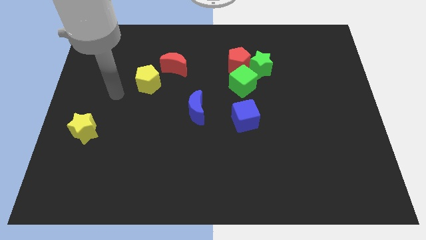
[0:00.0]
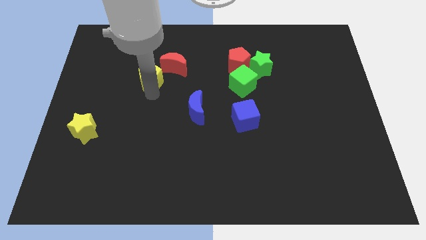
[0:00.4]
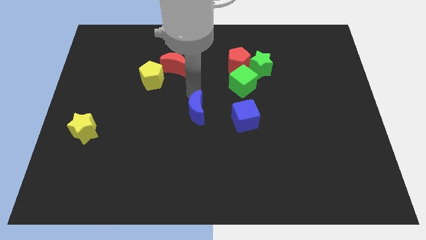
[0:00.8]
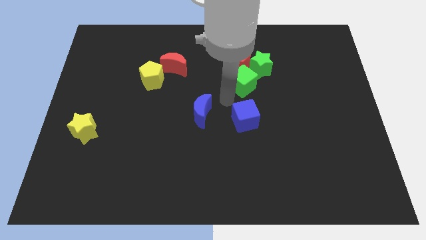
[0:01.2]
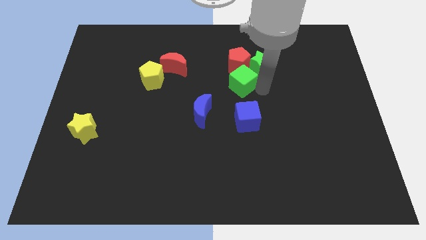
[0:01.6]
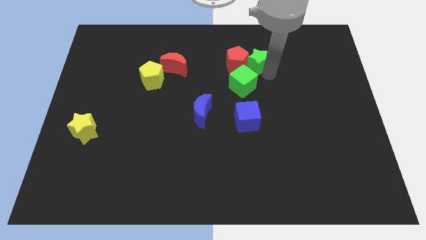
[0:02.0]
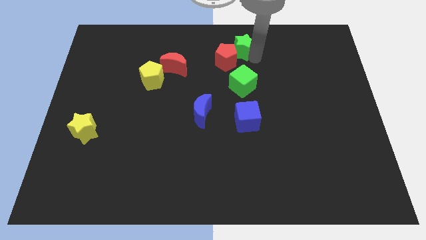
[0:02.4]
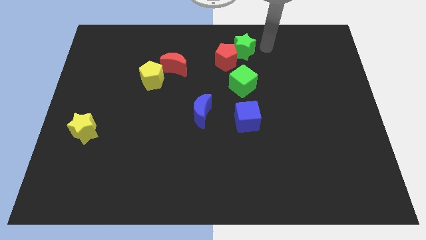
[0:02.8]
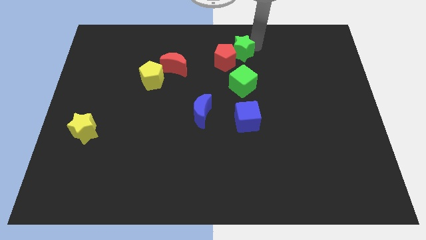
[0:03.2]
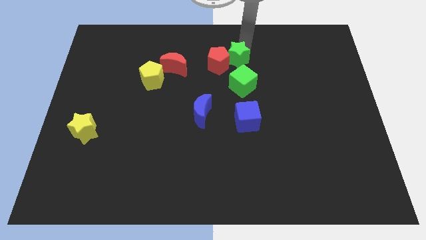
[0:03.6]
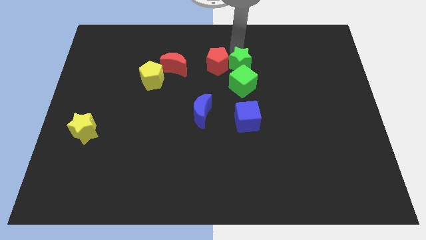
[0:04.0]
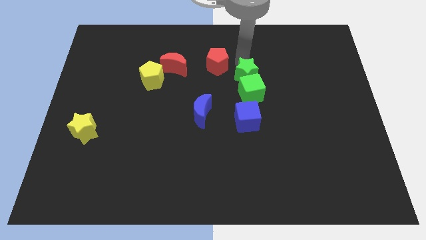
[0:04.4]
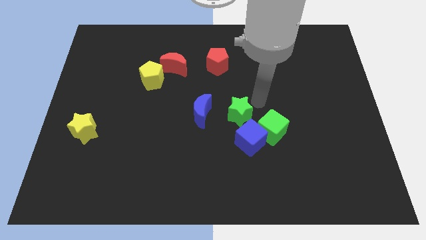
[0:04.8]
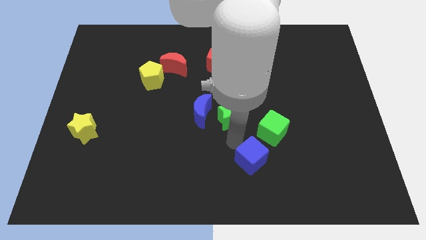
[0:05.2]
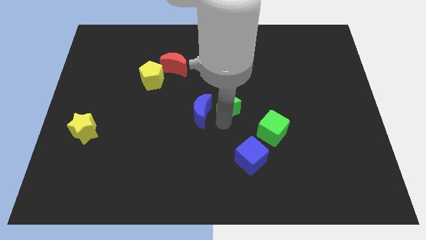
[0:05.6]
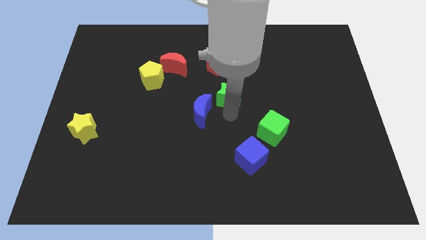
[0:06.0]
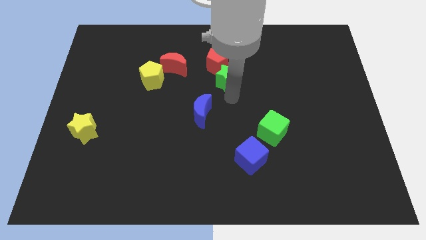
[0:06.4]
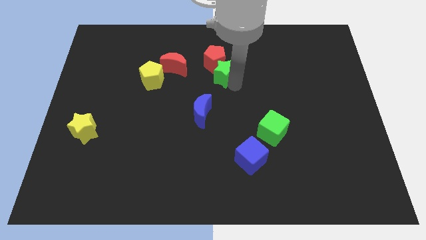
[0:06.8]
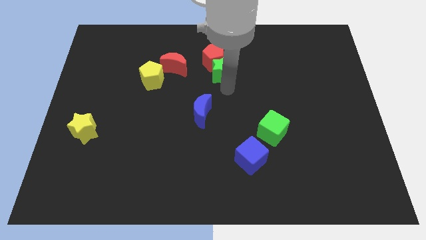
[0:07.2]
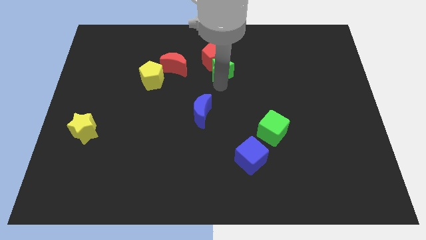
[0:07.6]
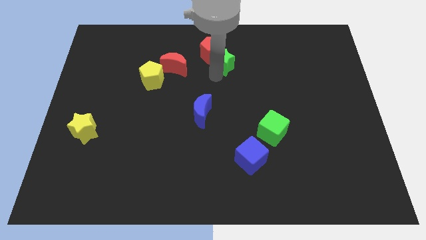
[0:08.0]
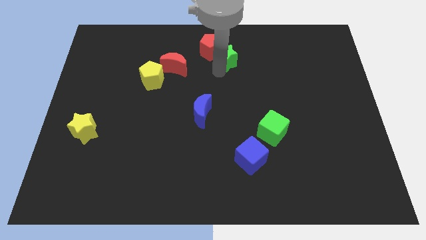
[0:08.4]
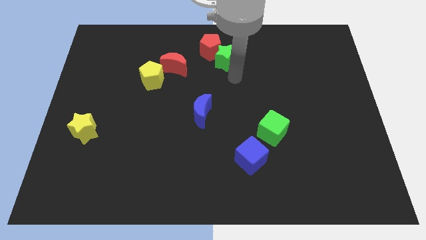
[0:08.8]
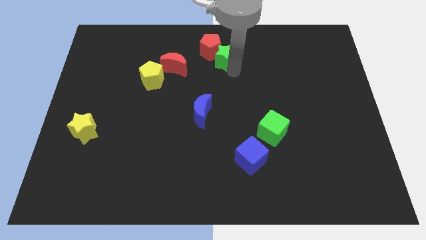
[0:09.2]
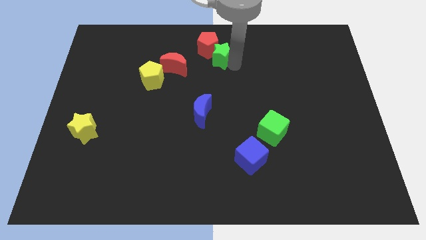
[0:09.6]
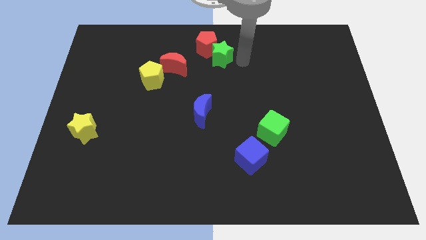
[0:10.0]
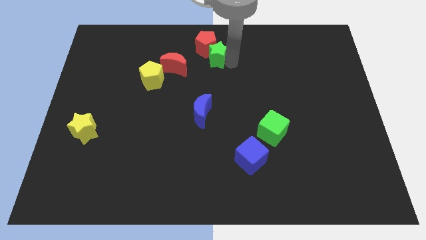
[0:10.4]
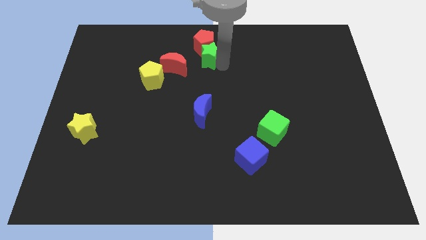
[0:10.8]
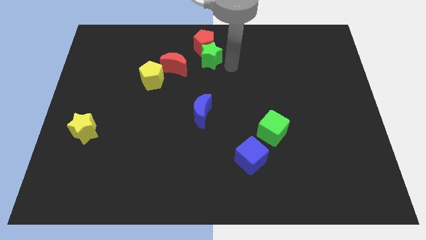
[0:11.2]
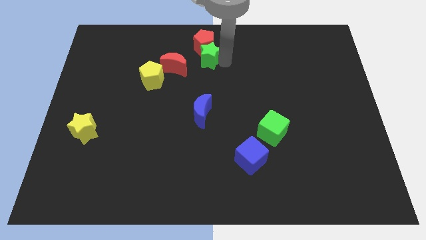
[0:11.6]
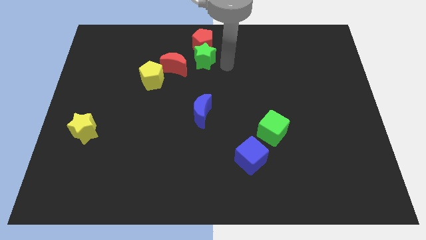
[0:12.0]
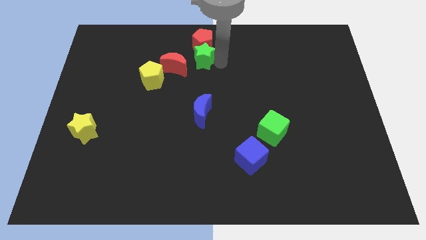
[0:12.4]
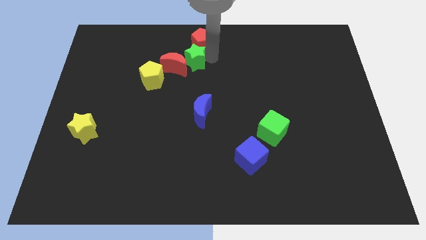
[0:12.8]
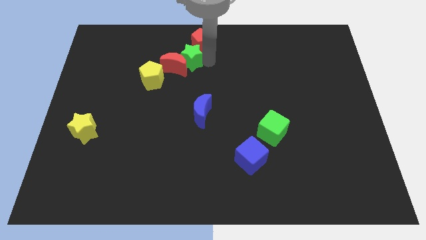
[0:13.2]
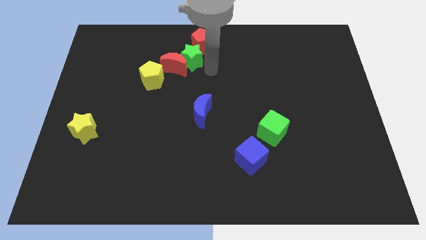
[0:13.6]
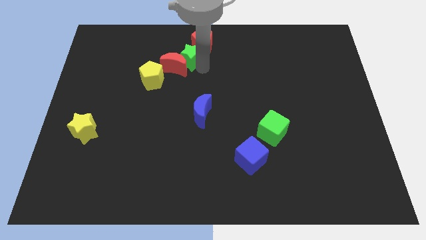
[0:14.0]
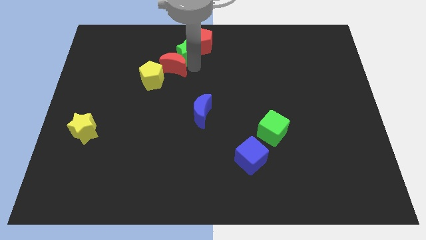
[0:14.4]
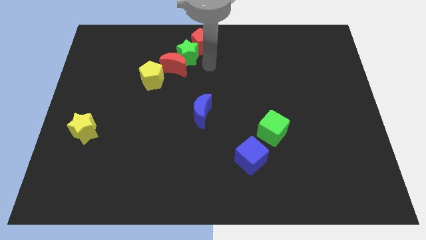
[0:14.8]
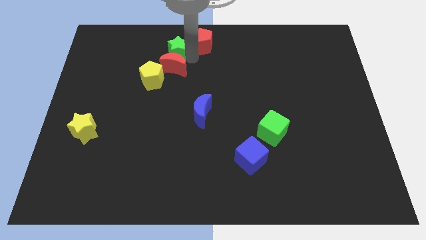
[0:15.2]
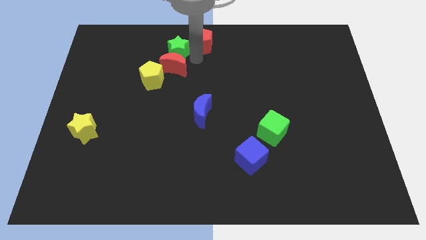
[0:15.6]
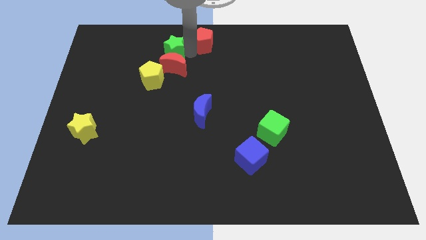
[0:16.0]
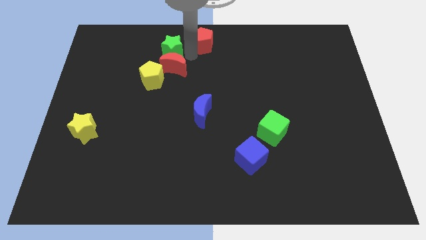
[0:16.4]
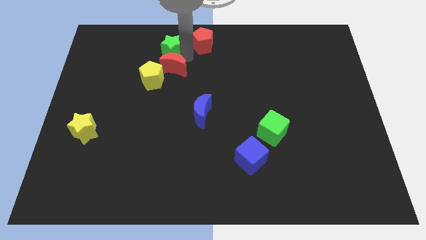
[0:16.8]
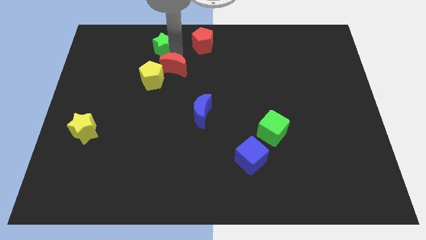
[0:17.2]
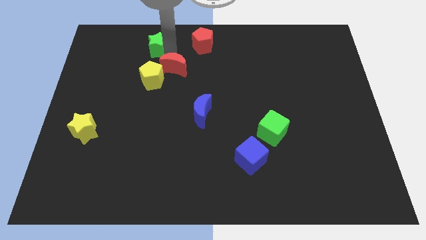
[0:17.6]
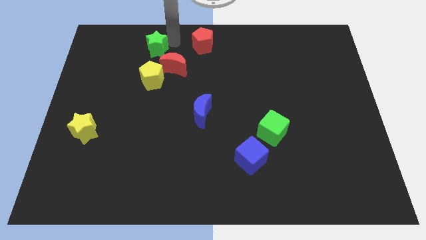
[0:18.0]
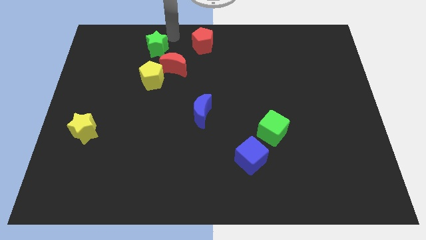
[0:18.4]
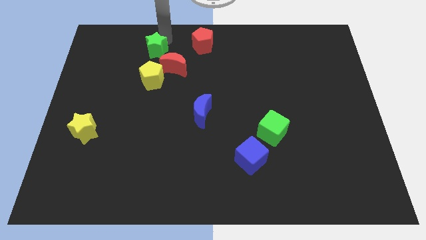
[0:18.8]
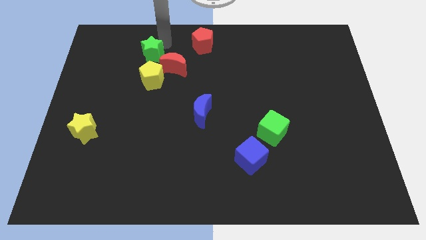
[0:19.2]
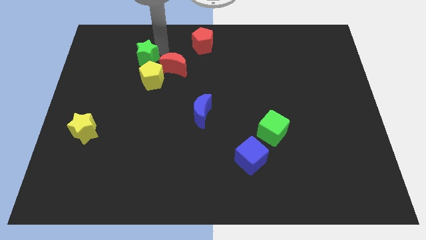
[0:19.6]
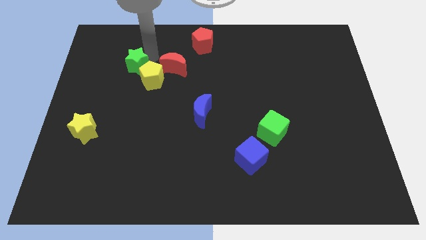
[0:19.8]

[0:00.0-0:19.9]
push the green star just left of the yellow pentagon
